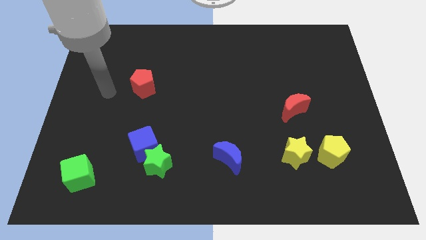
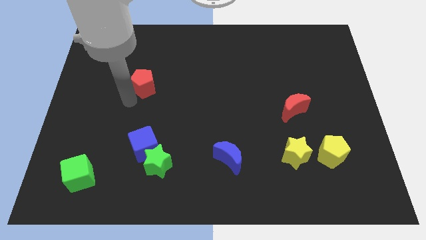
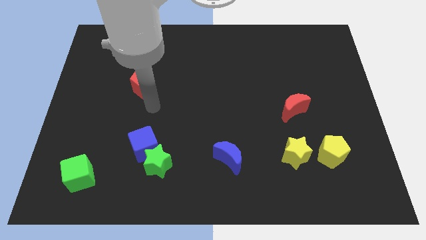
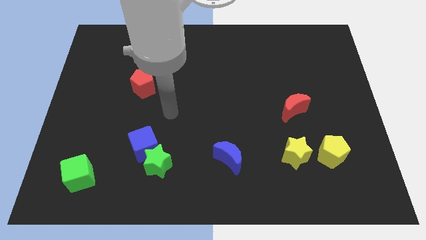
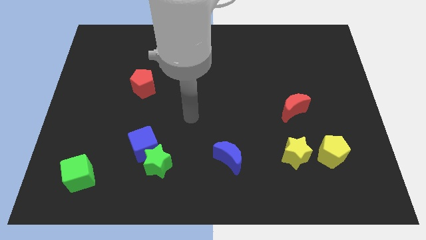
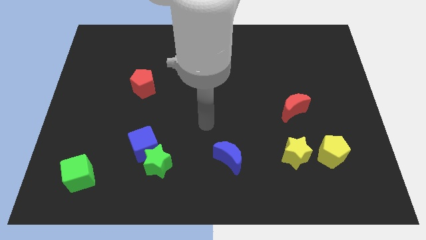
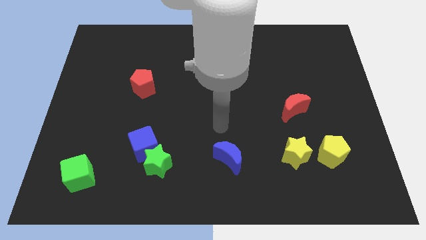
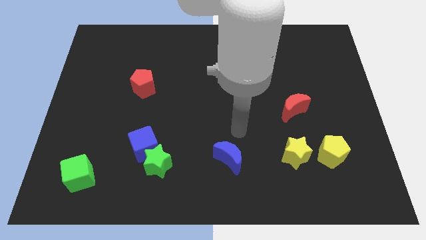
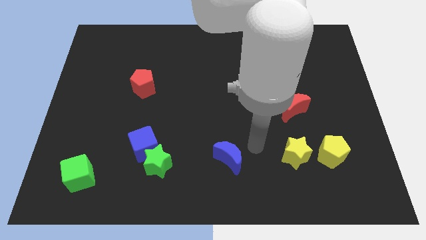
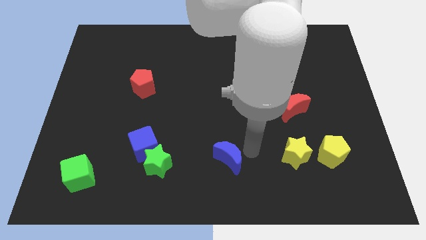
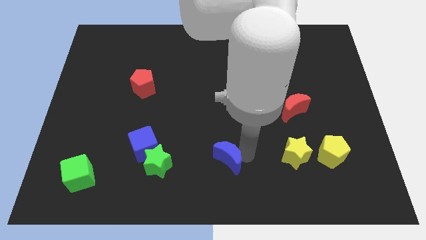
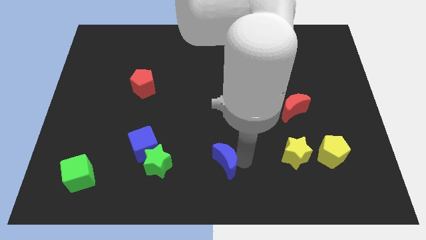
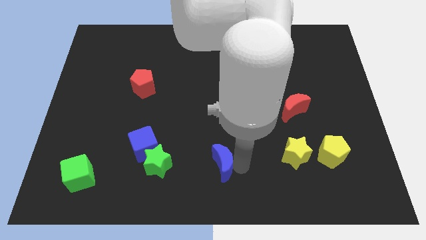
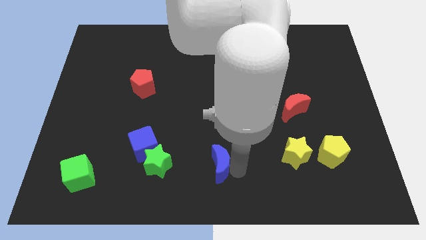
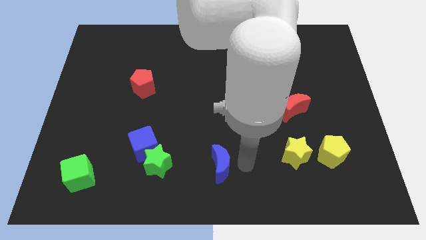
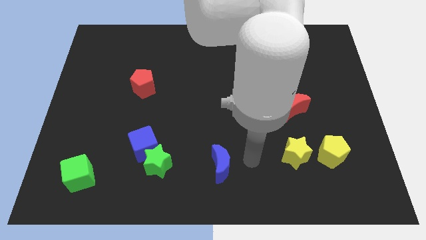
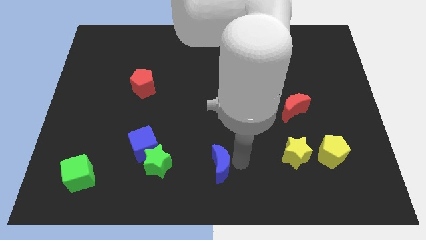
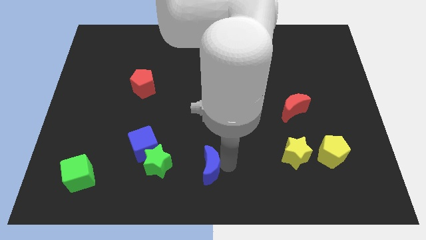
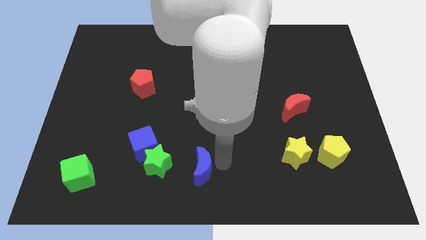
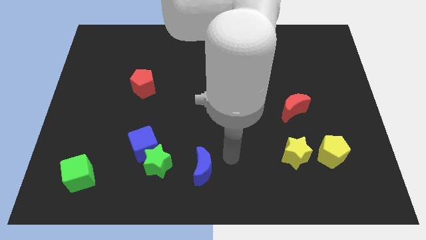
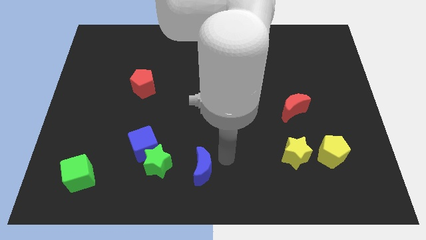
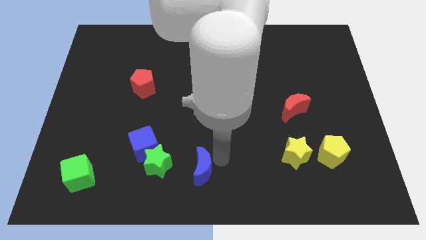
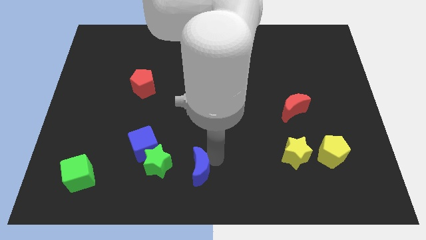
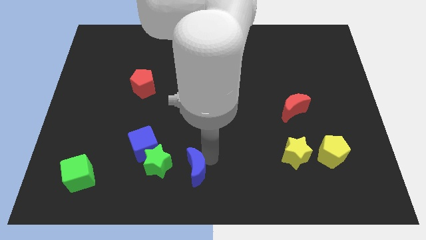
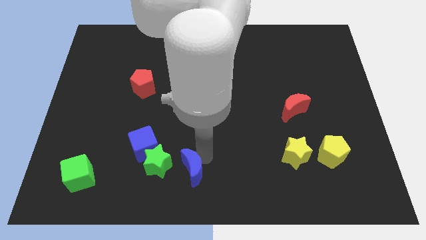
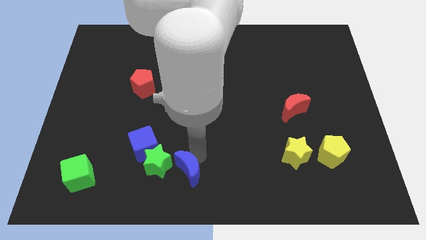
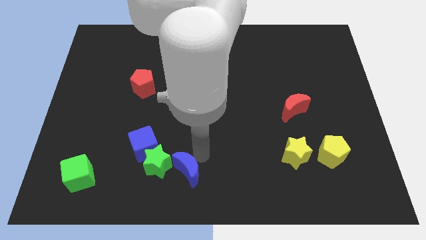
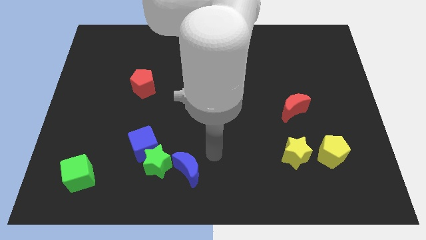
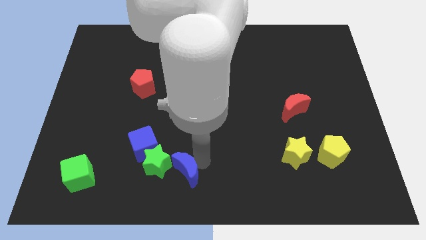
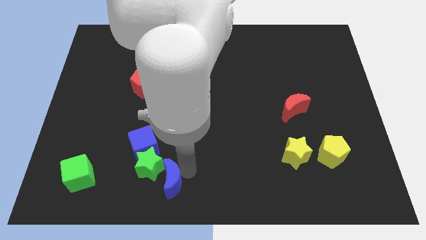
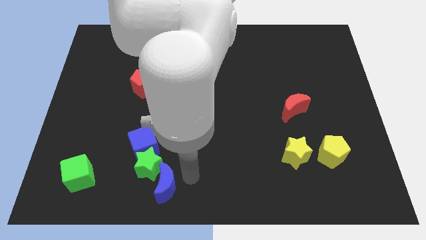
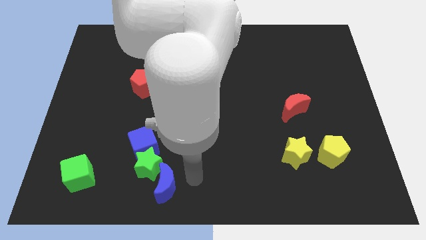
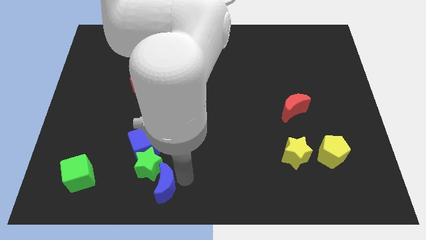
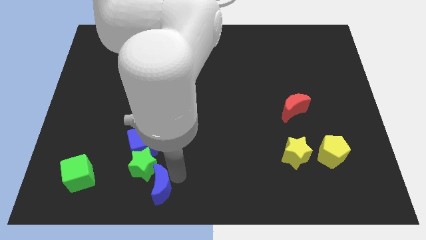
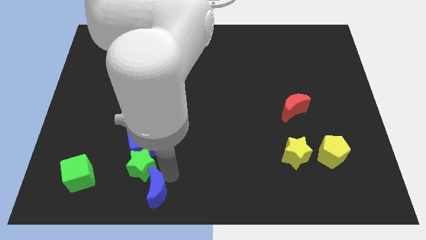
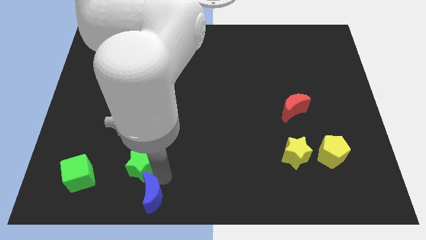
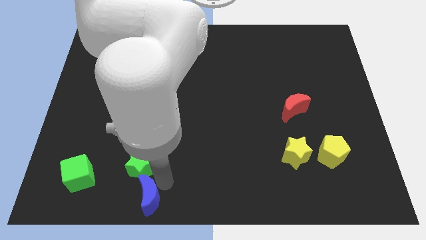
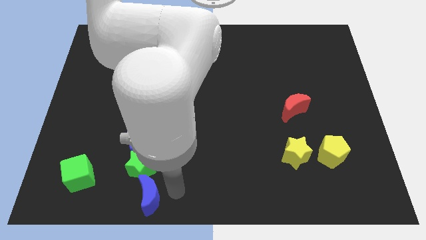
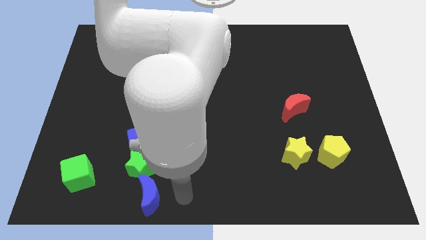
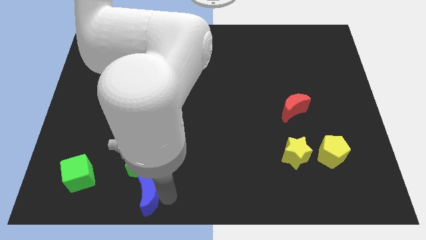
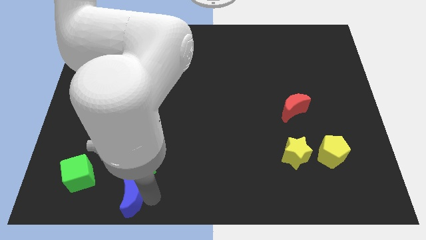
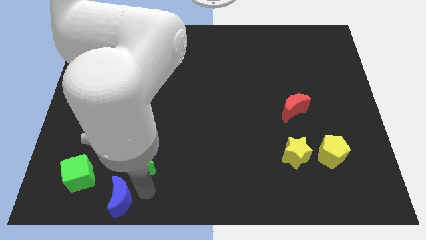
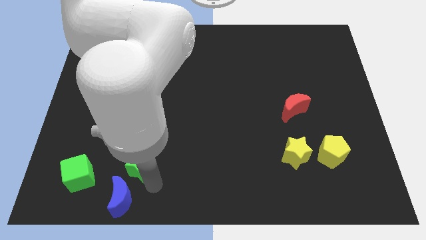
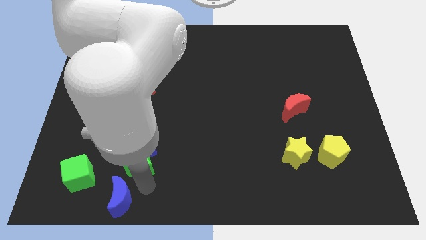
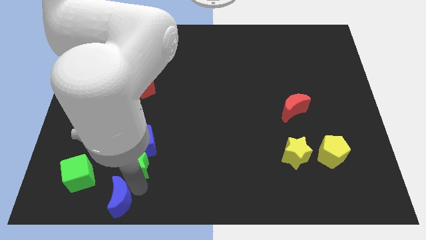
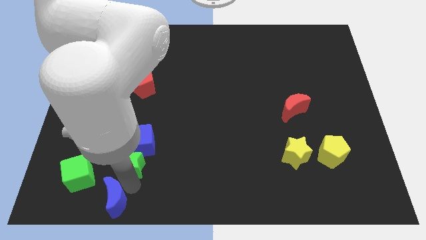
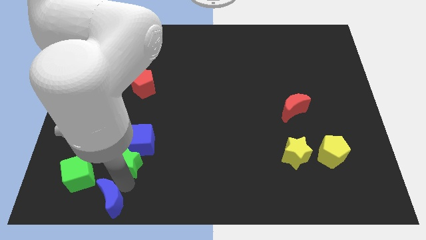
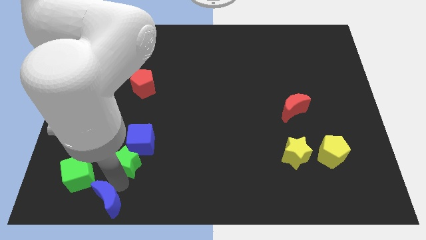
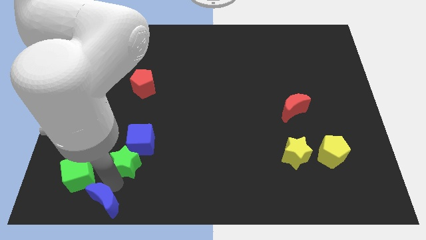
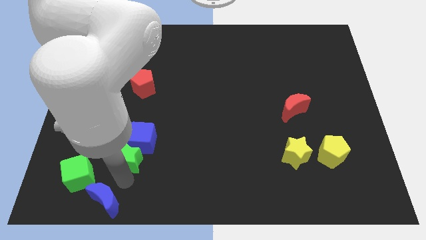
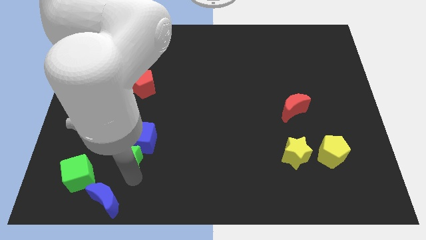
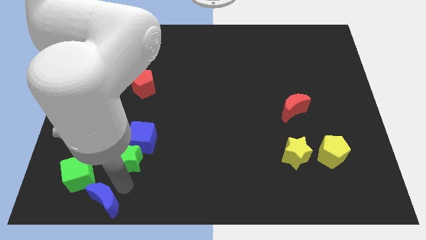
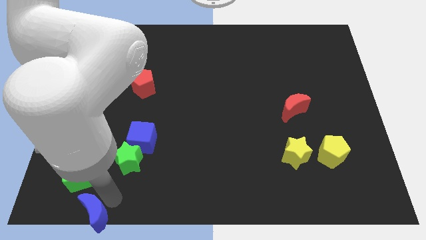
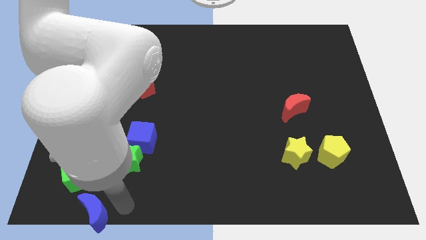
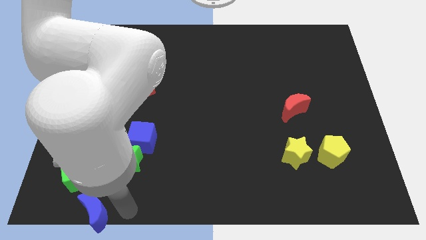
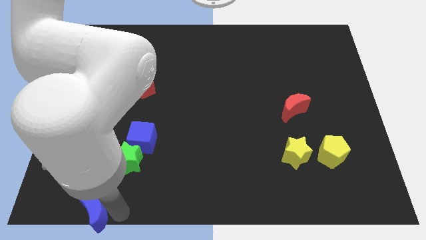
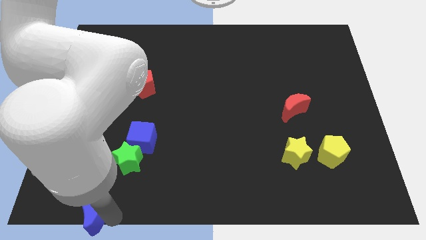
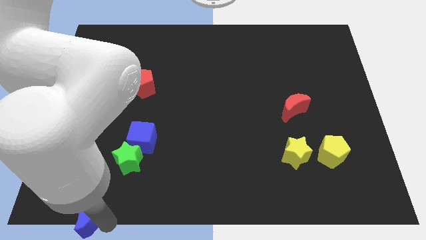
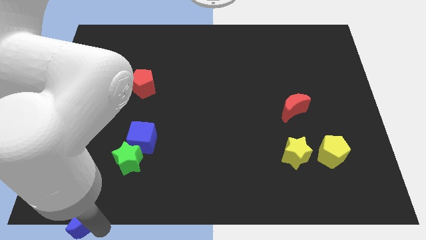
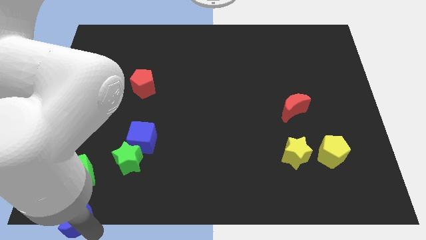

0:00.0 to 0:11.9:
slide the blue moon to the bottom left of the board

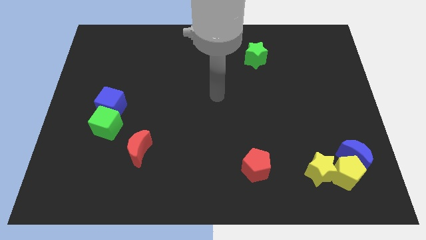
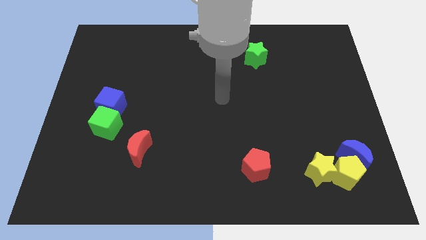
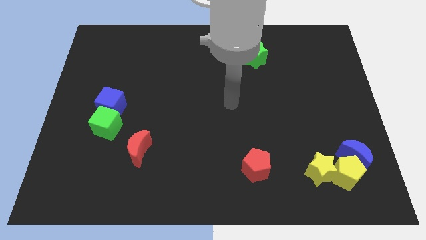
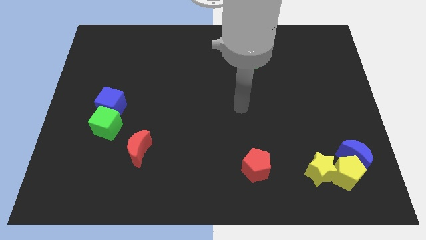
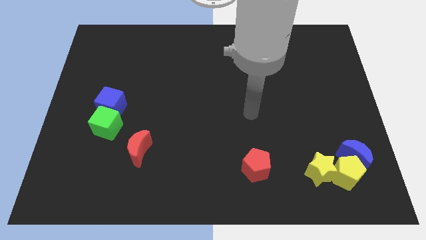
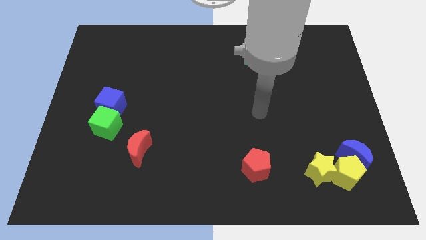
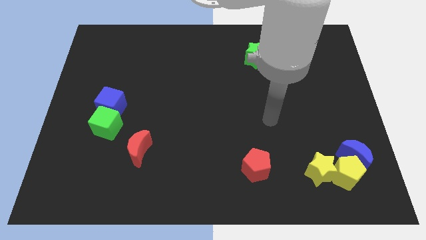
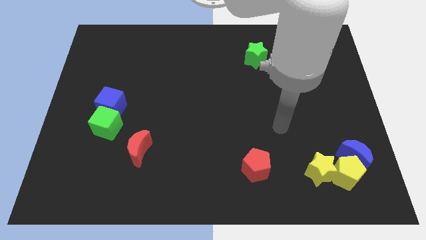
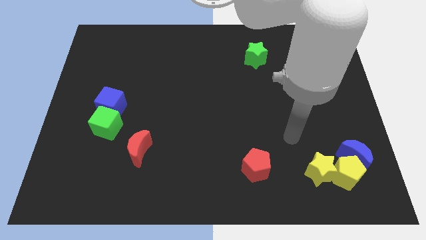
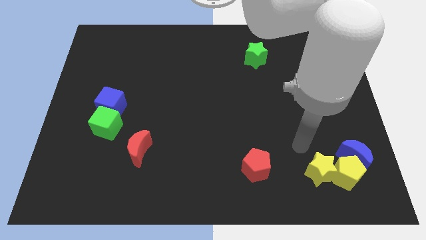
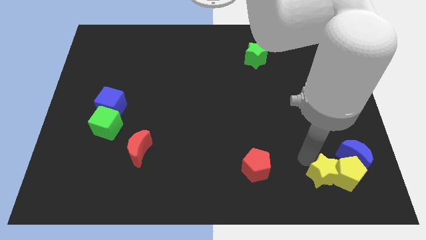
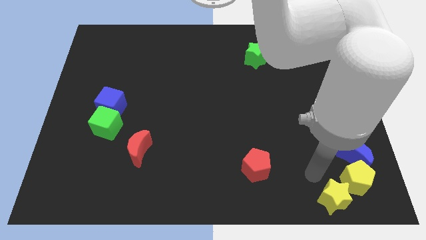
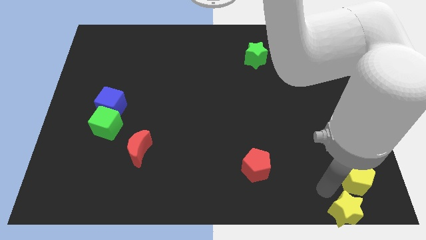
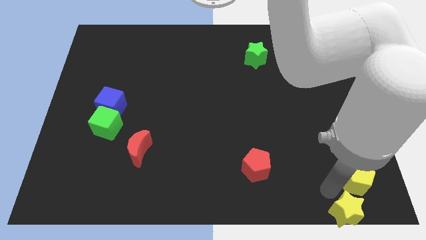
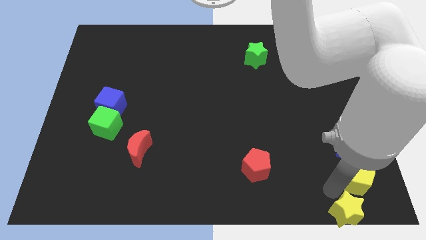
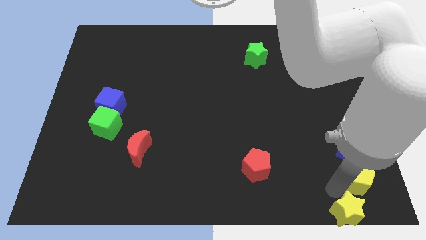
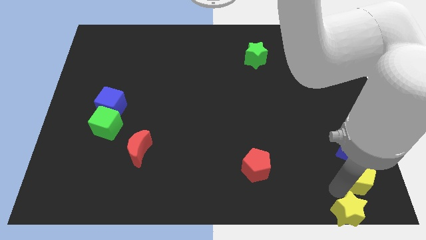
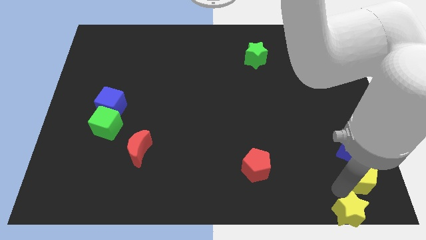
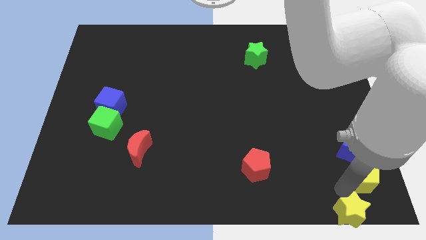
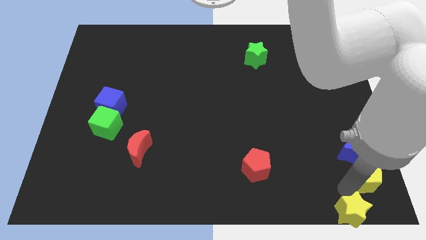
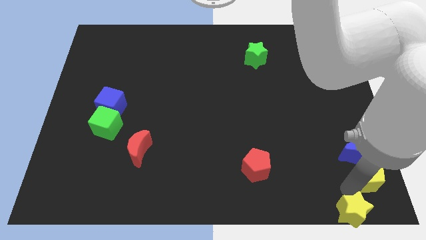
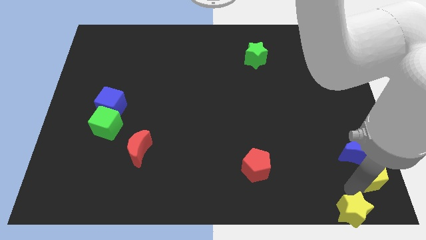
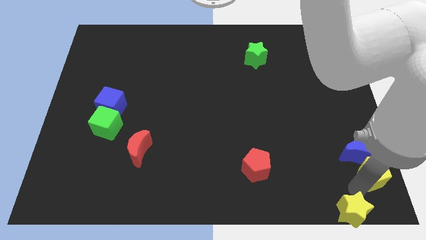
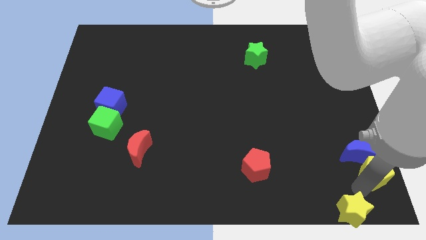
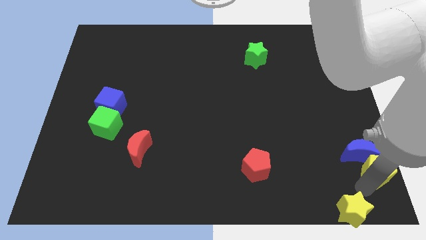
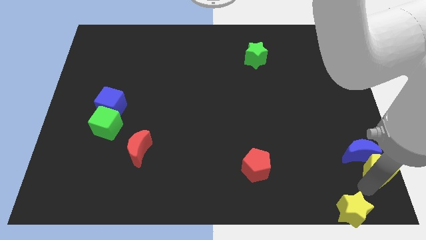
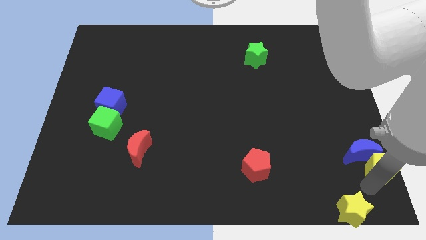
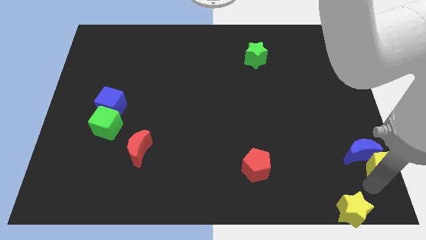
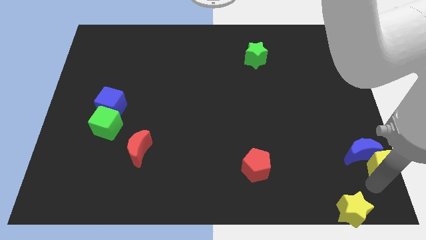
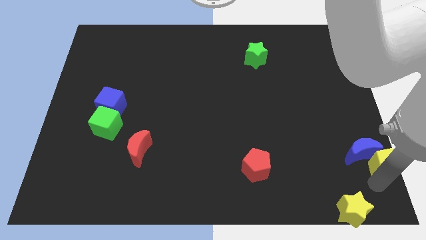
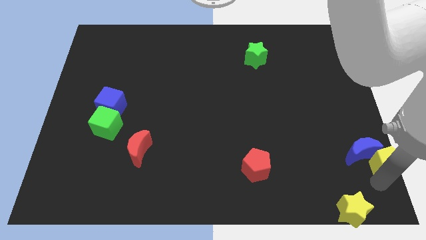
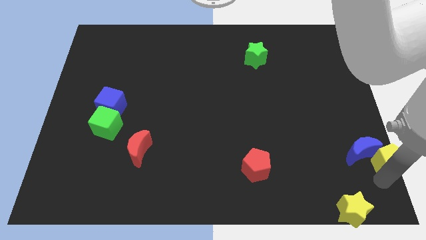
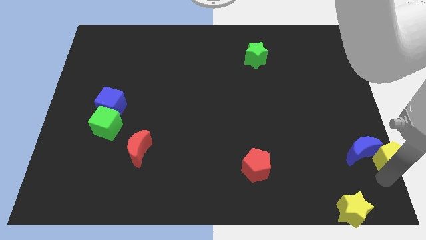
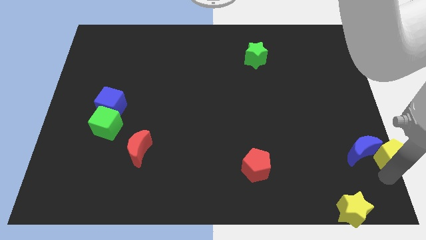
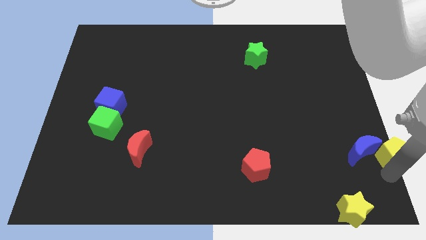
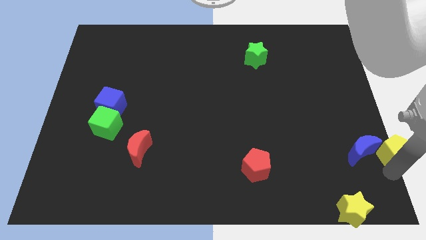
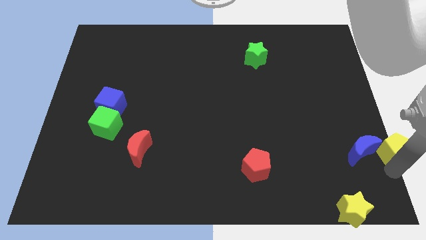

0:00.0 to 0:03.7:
put the yellow pentagon to the center right
